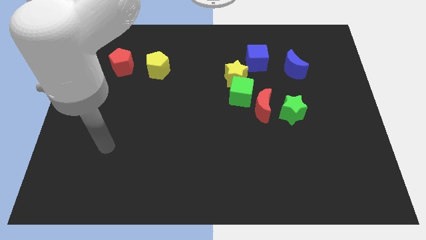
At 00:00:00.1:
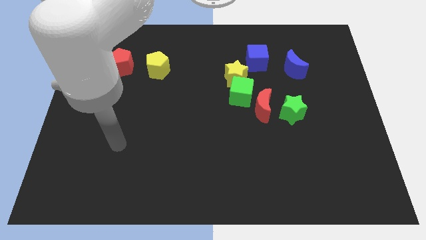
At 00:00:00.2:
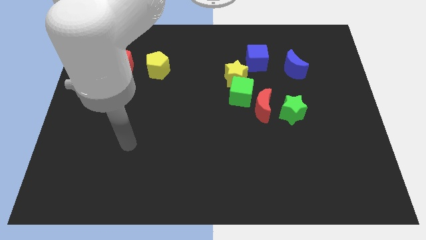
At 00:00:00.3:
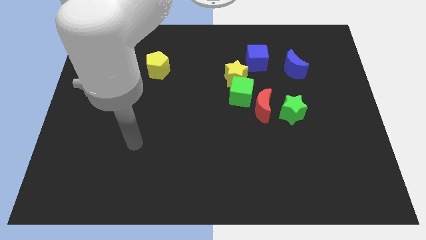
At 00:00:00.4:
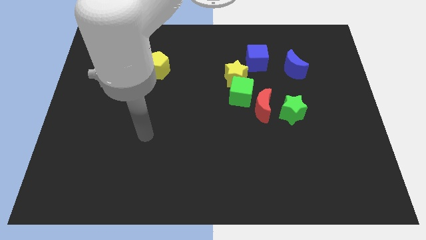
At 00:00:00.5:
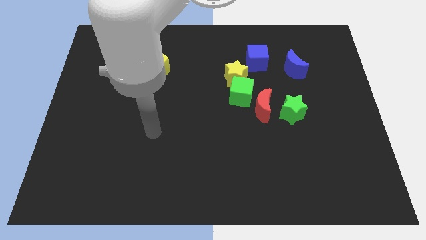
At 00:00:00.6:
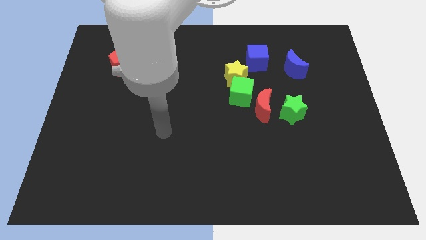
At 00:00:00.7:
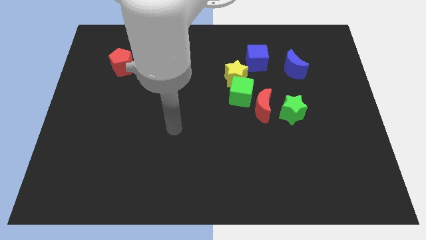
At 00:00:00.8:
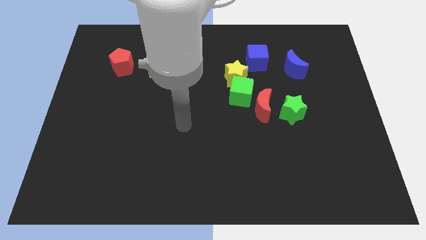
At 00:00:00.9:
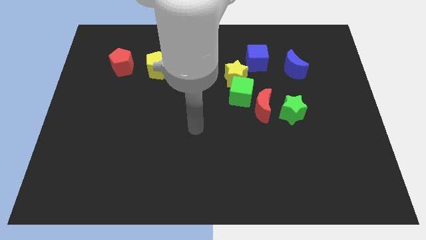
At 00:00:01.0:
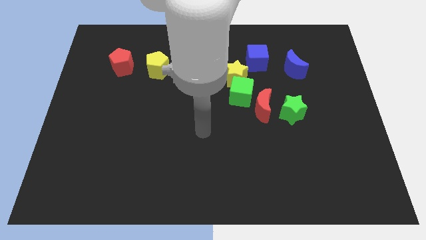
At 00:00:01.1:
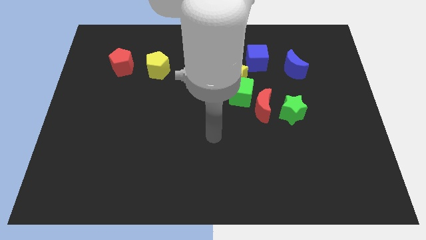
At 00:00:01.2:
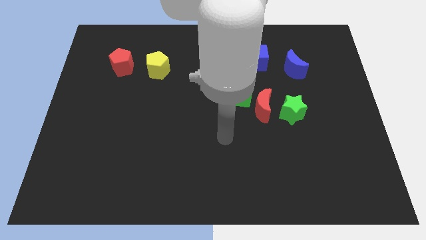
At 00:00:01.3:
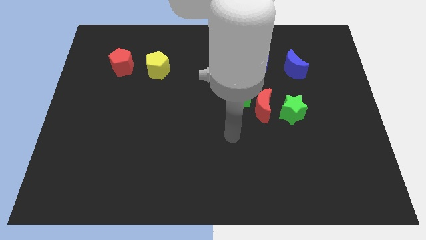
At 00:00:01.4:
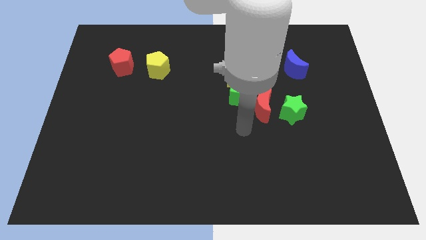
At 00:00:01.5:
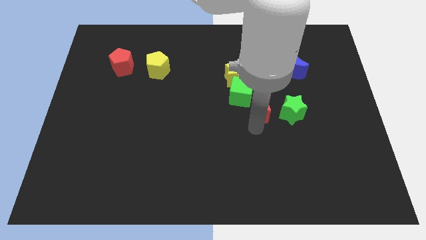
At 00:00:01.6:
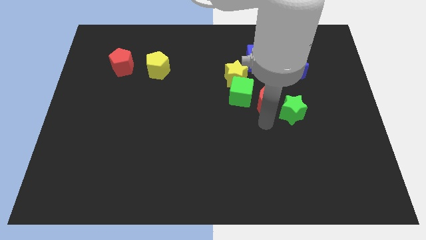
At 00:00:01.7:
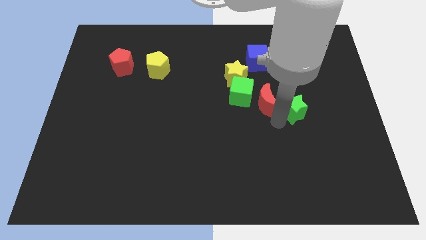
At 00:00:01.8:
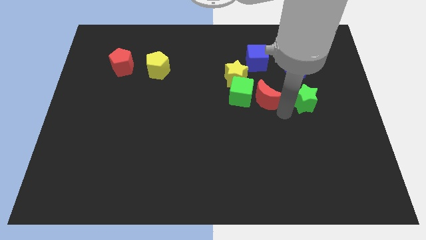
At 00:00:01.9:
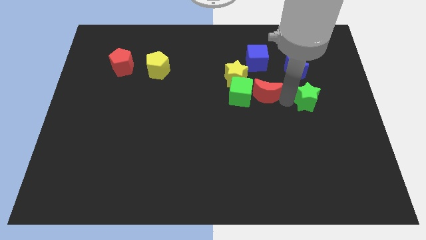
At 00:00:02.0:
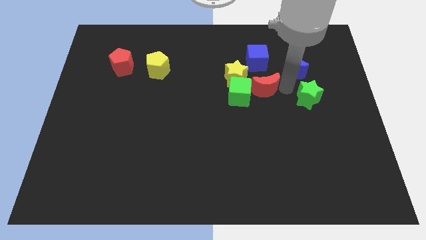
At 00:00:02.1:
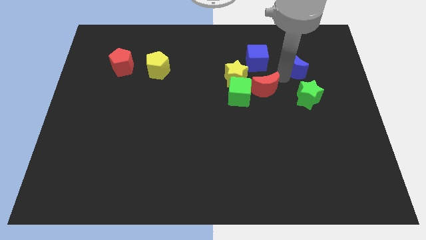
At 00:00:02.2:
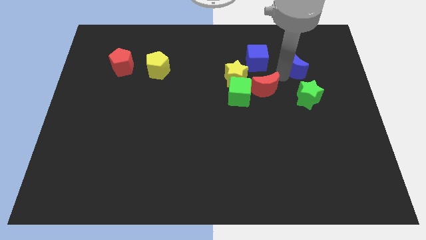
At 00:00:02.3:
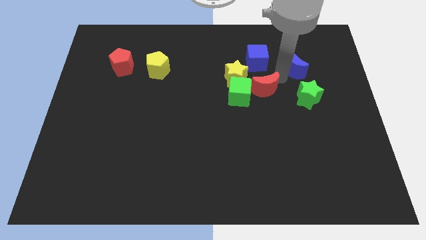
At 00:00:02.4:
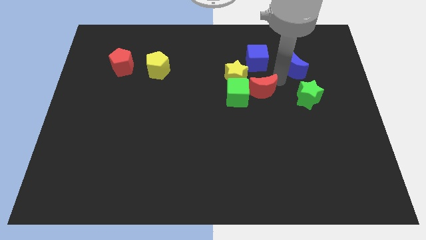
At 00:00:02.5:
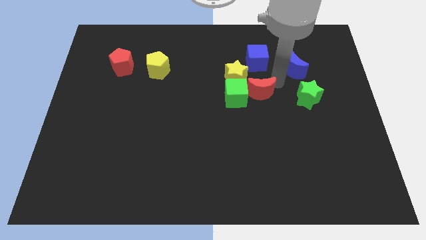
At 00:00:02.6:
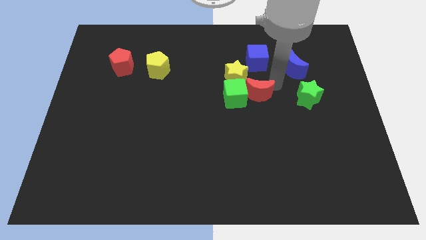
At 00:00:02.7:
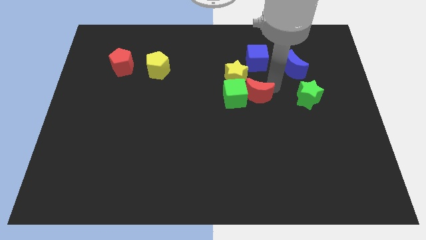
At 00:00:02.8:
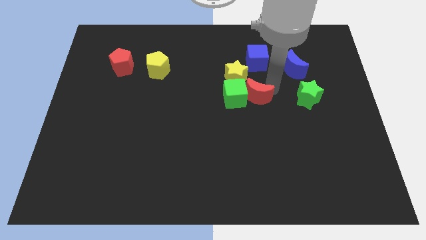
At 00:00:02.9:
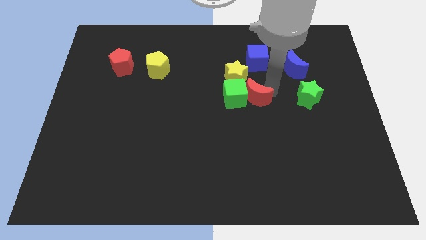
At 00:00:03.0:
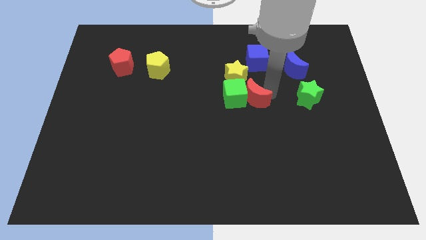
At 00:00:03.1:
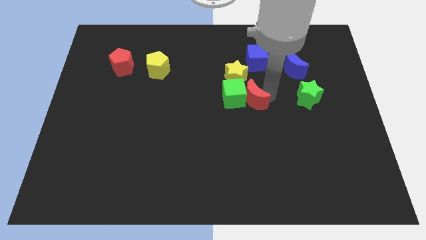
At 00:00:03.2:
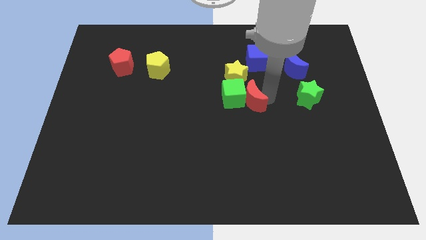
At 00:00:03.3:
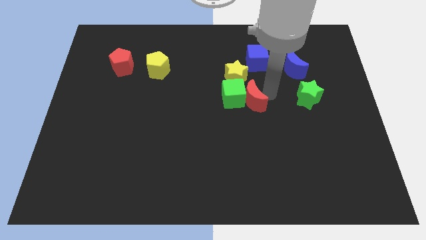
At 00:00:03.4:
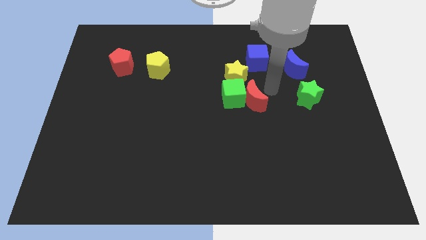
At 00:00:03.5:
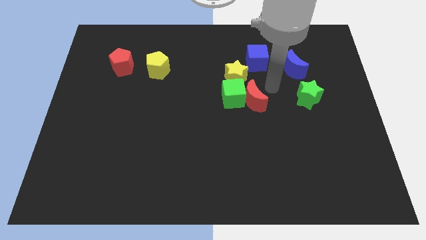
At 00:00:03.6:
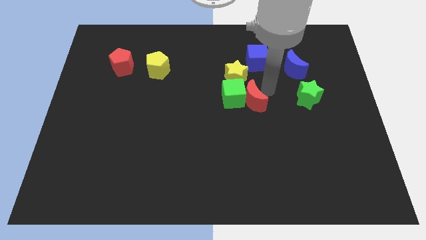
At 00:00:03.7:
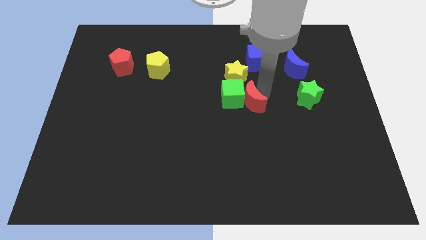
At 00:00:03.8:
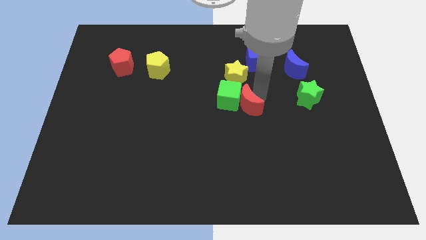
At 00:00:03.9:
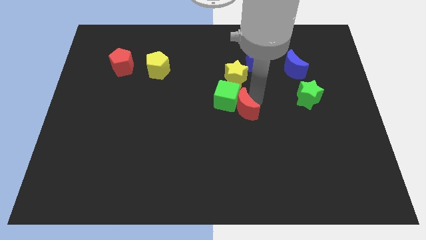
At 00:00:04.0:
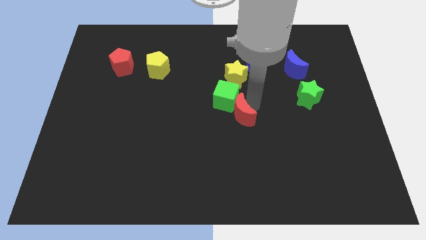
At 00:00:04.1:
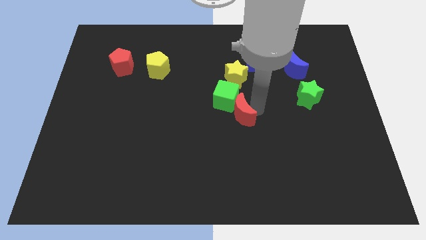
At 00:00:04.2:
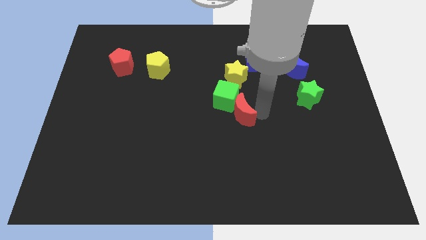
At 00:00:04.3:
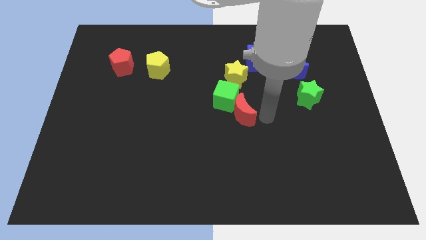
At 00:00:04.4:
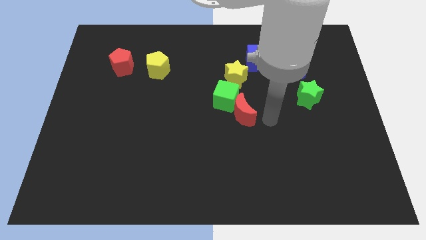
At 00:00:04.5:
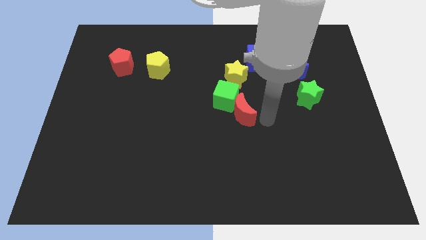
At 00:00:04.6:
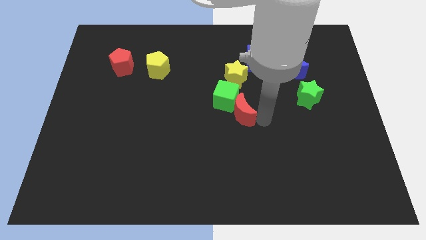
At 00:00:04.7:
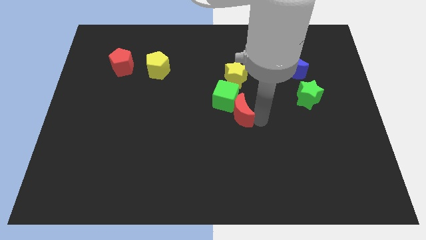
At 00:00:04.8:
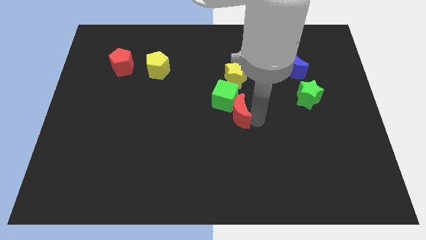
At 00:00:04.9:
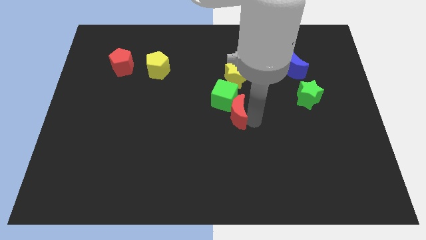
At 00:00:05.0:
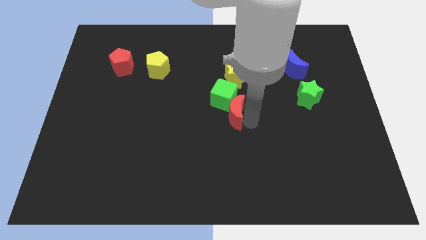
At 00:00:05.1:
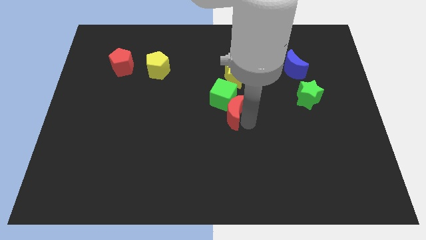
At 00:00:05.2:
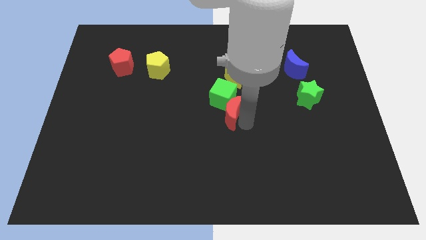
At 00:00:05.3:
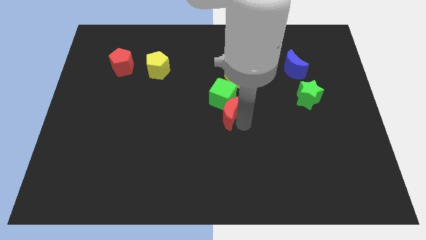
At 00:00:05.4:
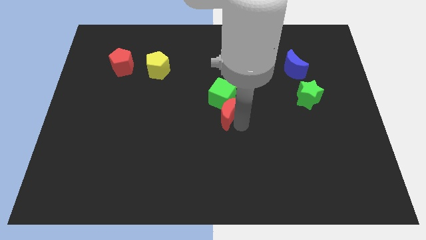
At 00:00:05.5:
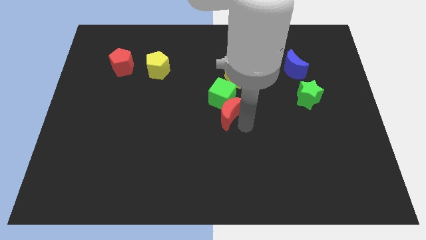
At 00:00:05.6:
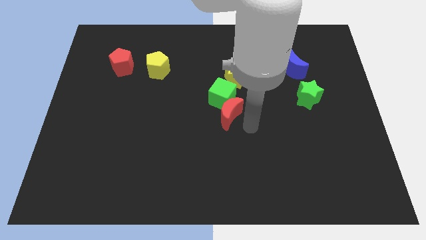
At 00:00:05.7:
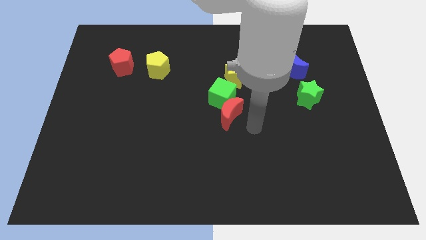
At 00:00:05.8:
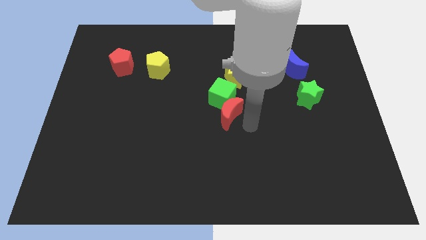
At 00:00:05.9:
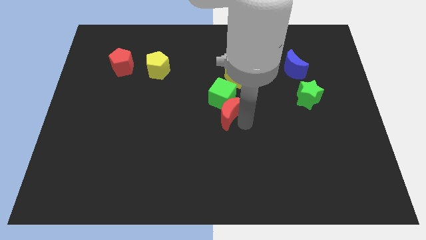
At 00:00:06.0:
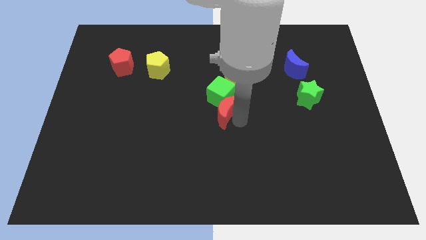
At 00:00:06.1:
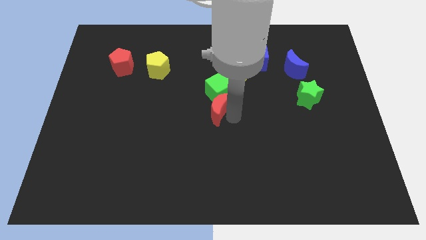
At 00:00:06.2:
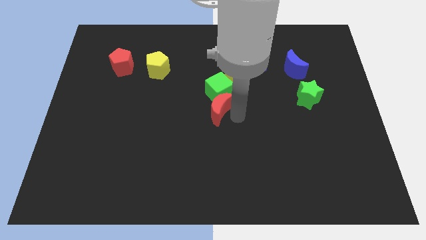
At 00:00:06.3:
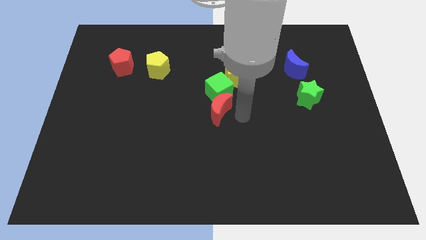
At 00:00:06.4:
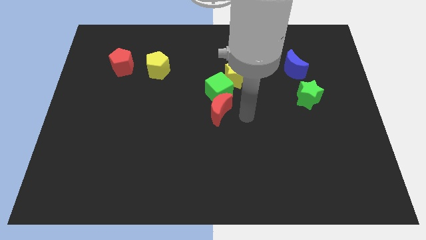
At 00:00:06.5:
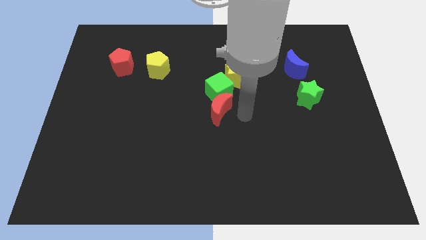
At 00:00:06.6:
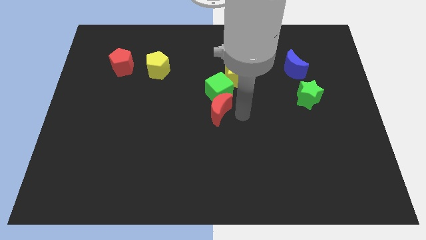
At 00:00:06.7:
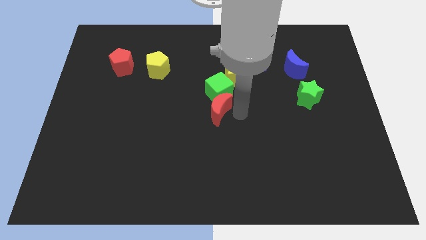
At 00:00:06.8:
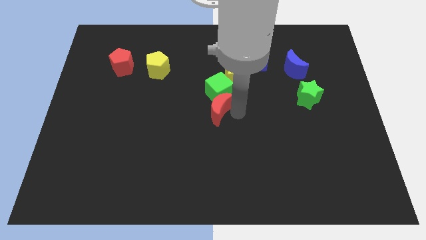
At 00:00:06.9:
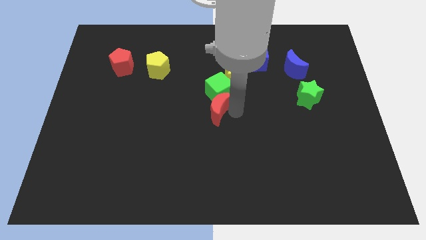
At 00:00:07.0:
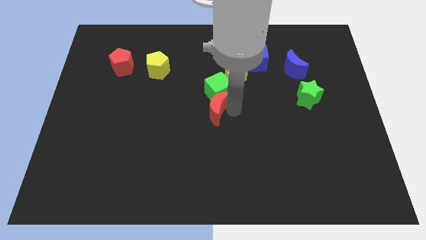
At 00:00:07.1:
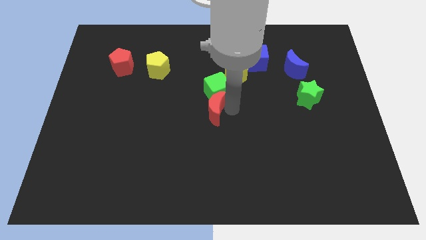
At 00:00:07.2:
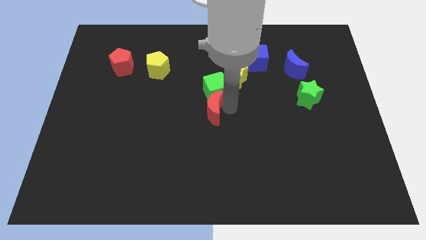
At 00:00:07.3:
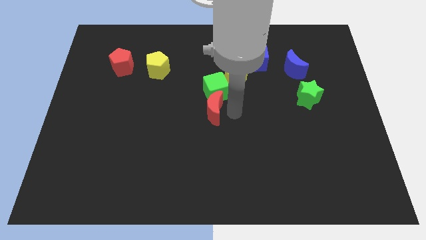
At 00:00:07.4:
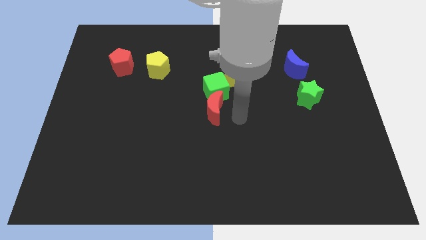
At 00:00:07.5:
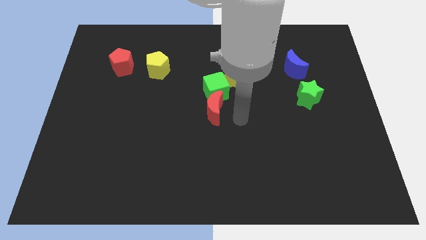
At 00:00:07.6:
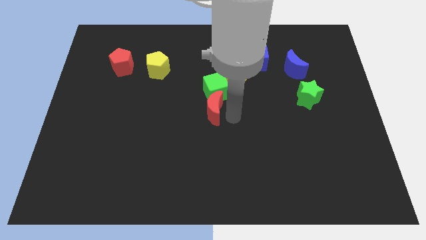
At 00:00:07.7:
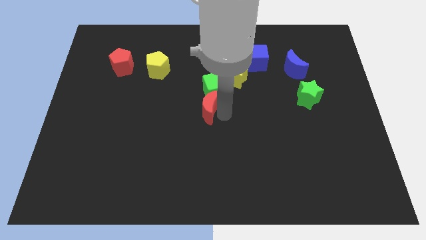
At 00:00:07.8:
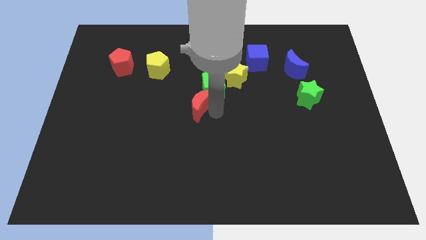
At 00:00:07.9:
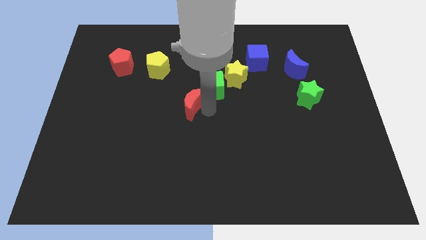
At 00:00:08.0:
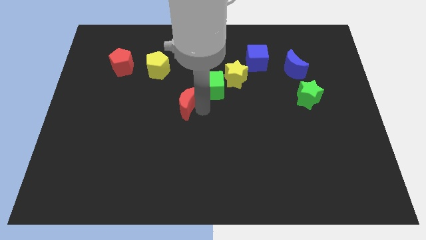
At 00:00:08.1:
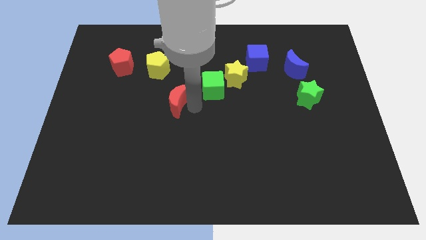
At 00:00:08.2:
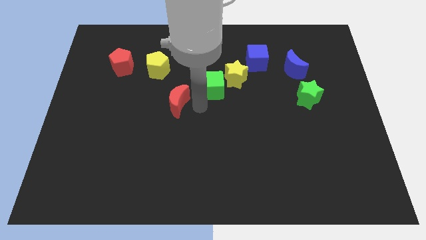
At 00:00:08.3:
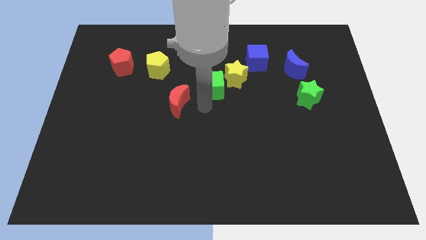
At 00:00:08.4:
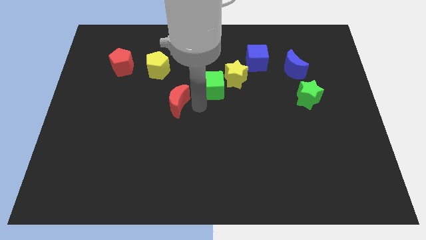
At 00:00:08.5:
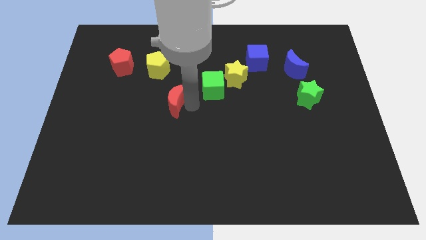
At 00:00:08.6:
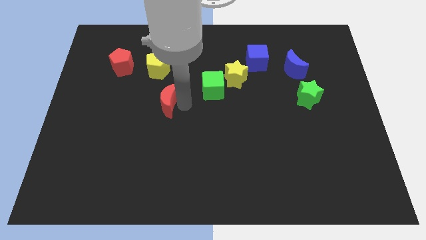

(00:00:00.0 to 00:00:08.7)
move the red moon below the yellow pentagon
